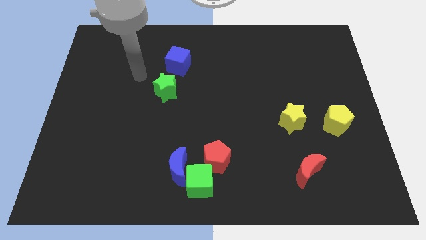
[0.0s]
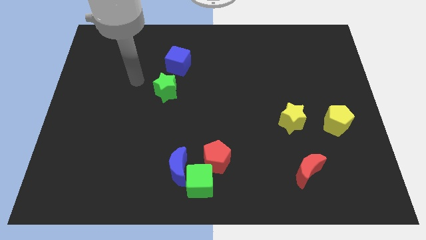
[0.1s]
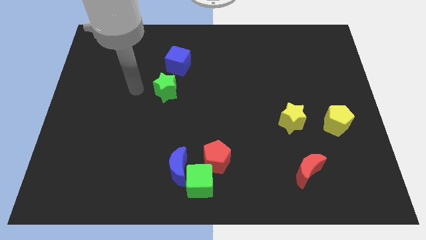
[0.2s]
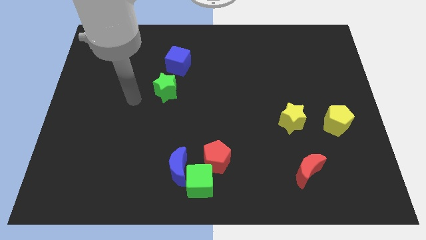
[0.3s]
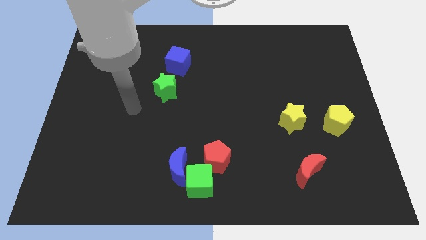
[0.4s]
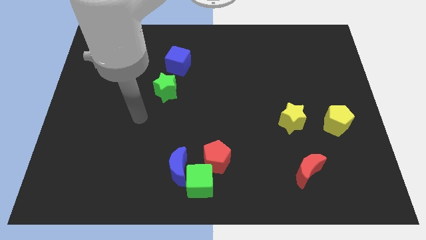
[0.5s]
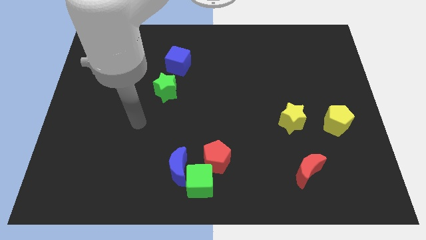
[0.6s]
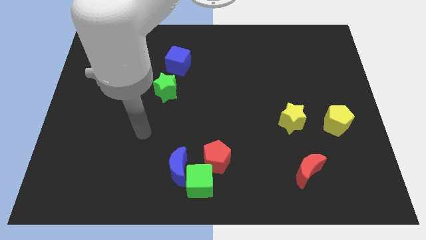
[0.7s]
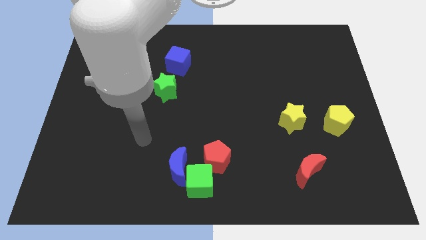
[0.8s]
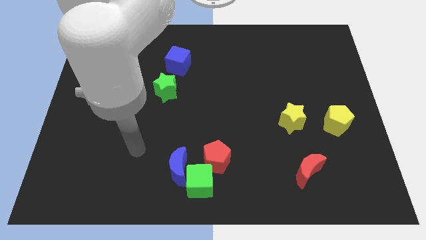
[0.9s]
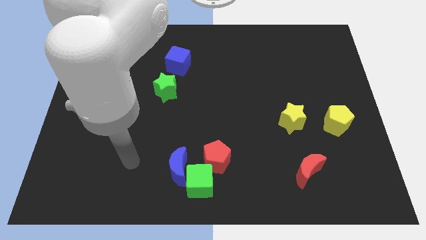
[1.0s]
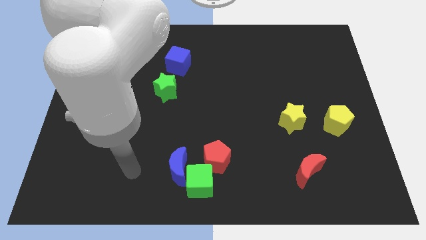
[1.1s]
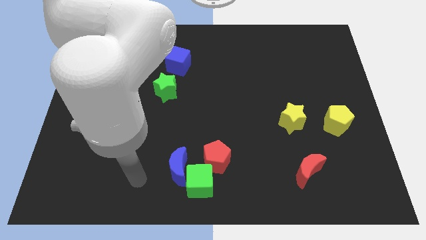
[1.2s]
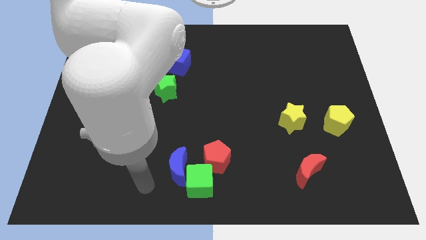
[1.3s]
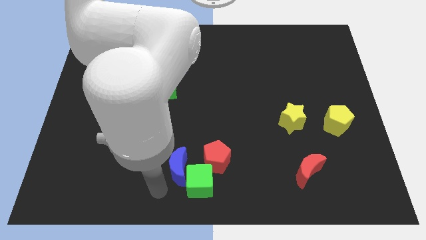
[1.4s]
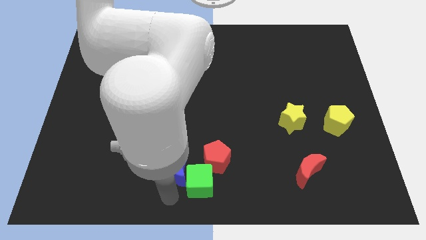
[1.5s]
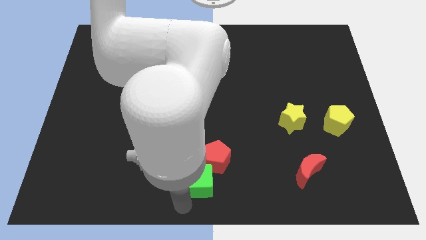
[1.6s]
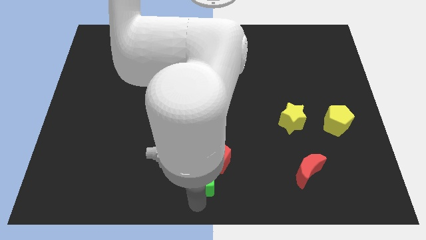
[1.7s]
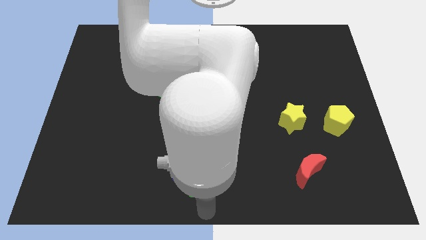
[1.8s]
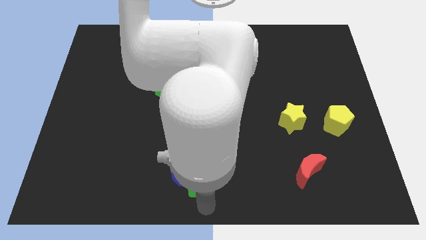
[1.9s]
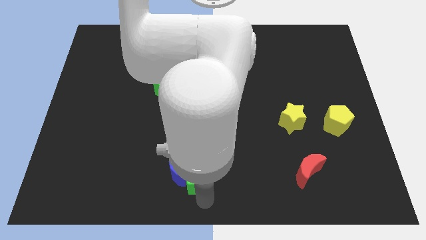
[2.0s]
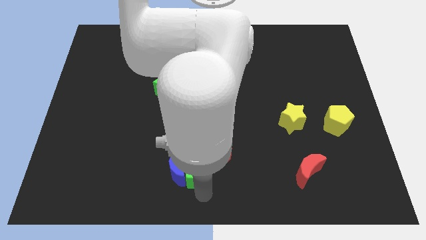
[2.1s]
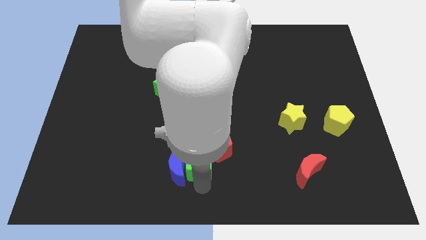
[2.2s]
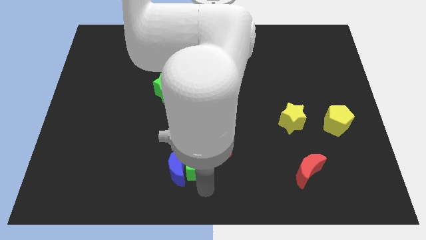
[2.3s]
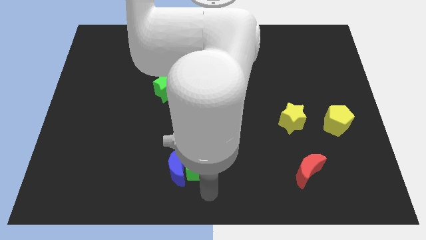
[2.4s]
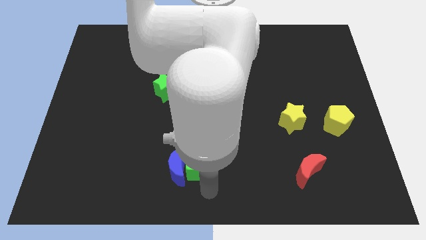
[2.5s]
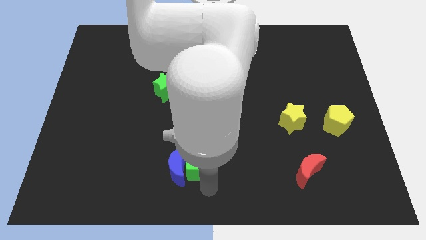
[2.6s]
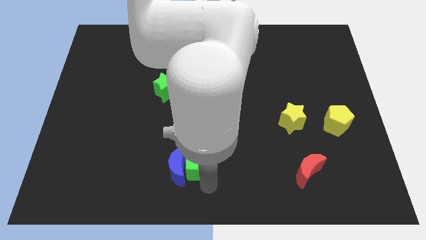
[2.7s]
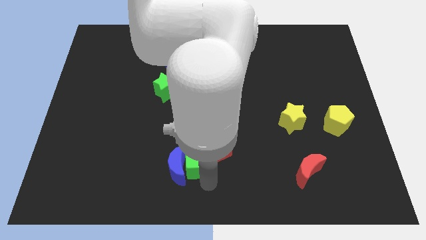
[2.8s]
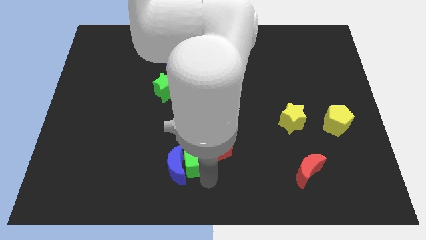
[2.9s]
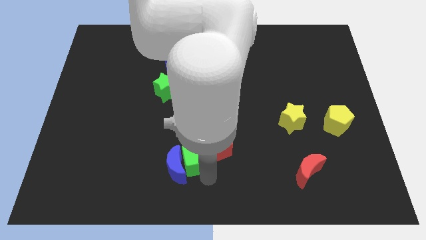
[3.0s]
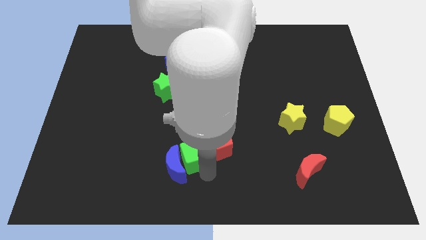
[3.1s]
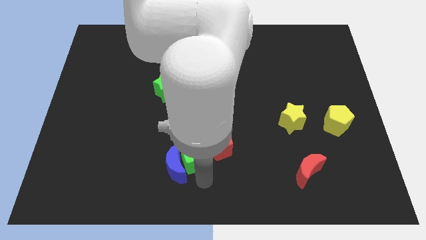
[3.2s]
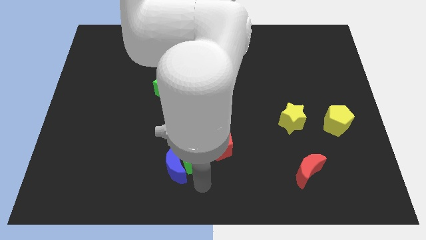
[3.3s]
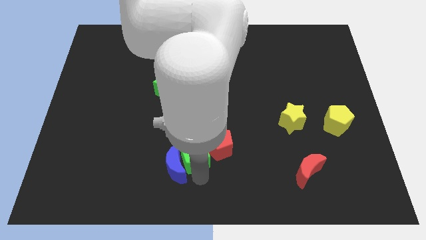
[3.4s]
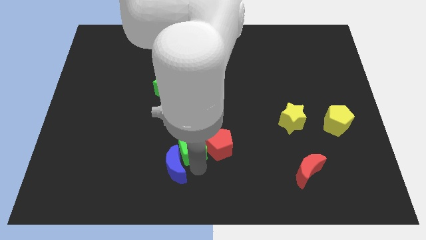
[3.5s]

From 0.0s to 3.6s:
push the green cube somewhat up

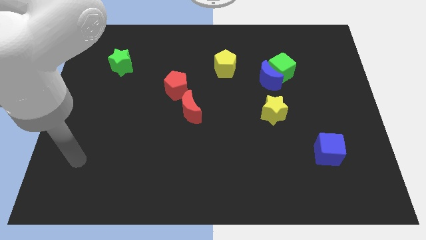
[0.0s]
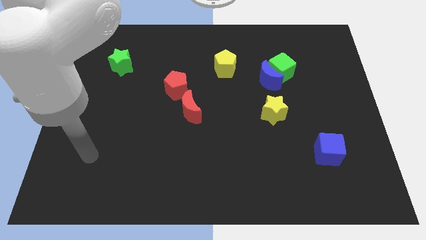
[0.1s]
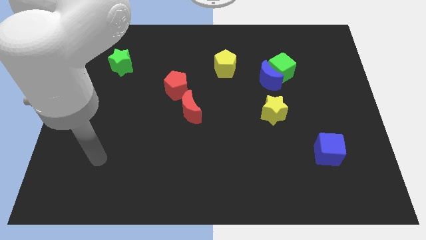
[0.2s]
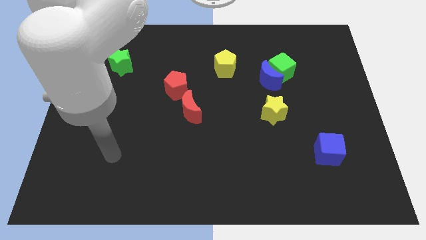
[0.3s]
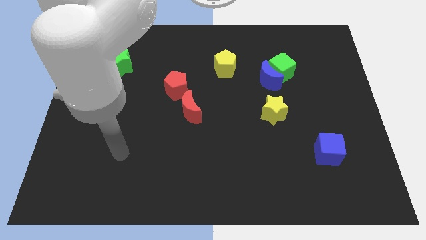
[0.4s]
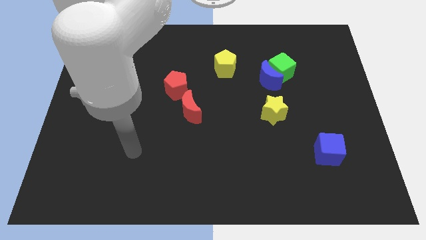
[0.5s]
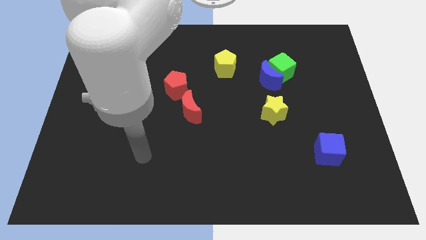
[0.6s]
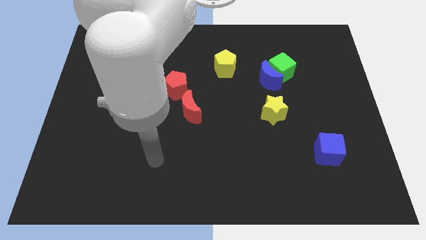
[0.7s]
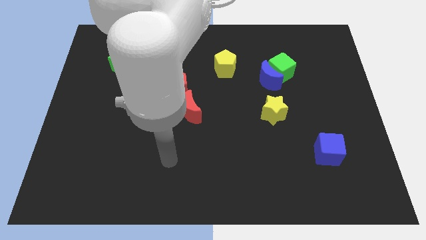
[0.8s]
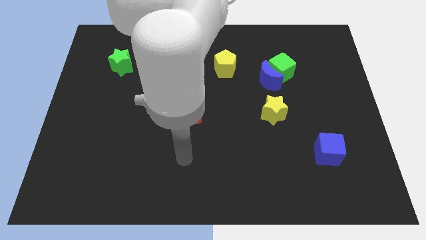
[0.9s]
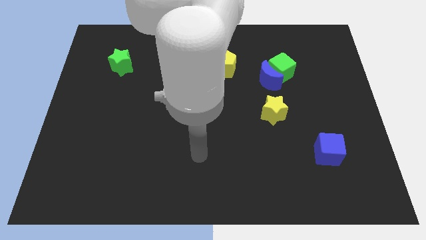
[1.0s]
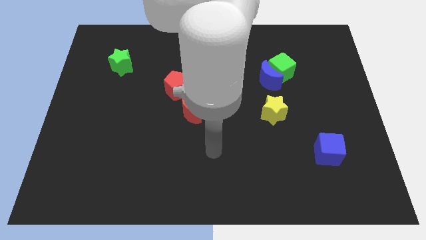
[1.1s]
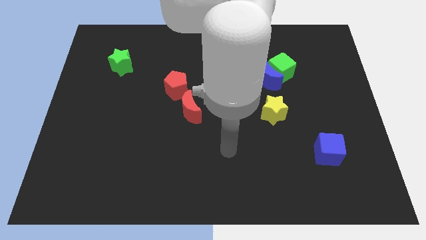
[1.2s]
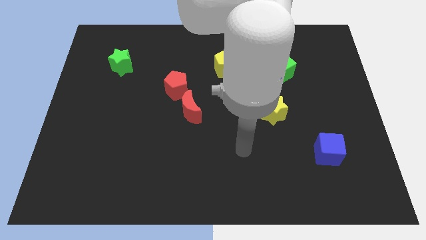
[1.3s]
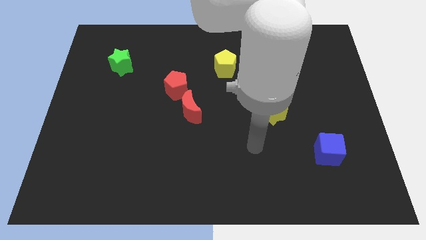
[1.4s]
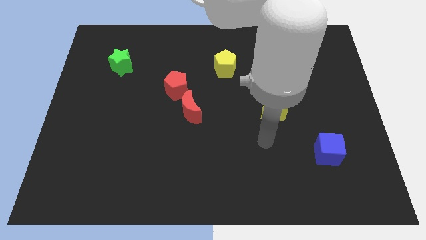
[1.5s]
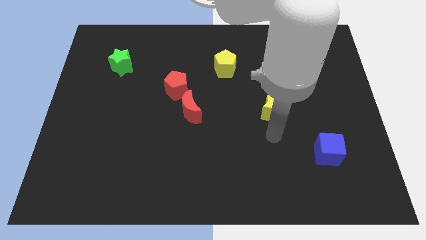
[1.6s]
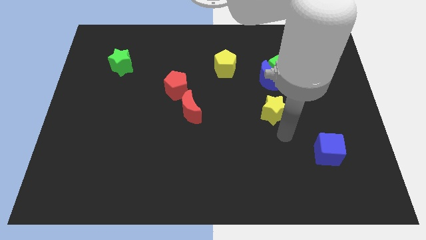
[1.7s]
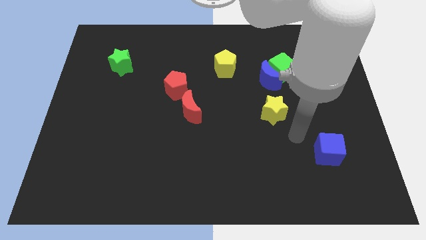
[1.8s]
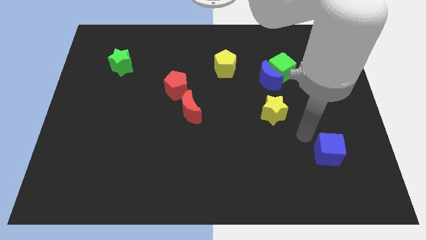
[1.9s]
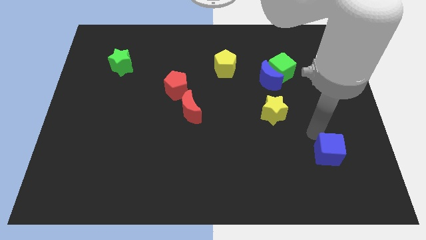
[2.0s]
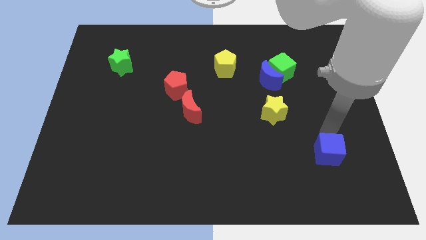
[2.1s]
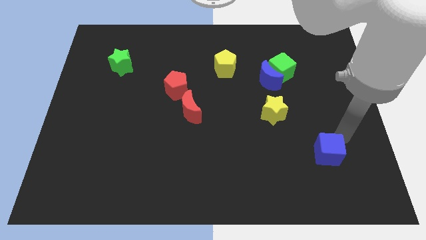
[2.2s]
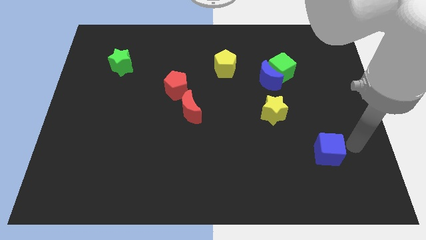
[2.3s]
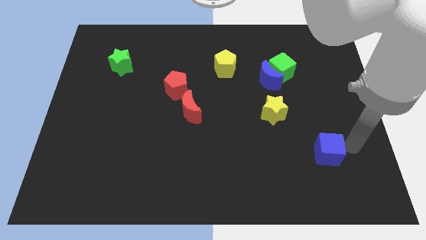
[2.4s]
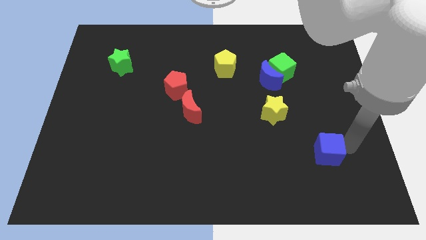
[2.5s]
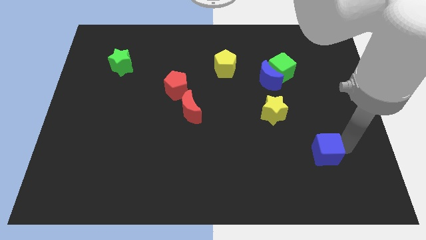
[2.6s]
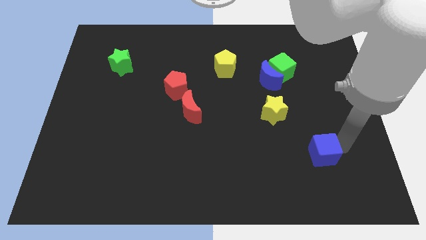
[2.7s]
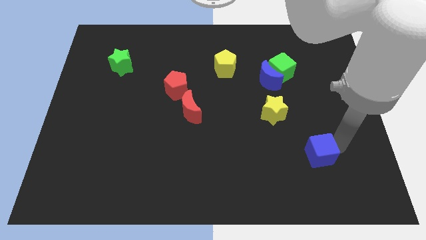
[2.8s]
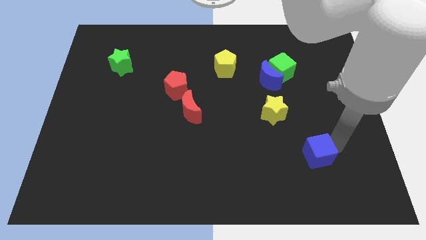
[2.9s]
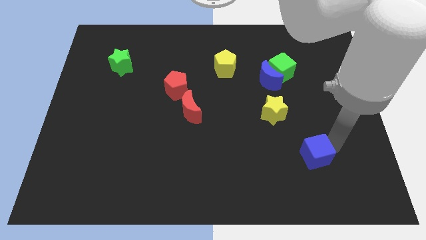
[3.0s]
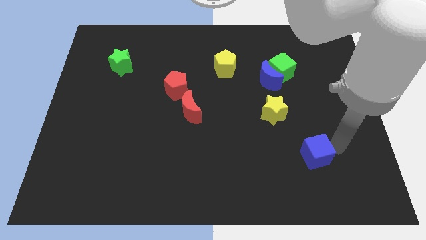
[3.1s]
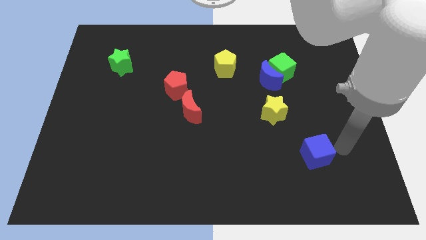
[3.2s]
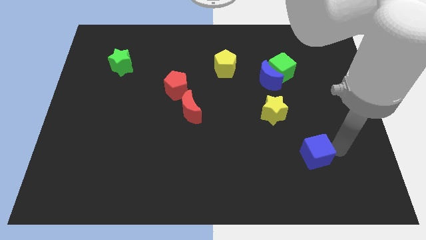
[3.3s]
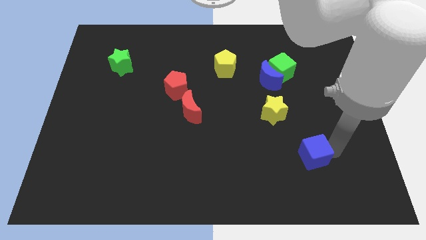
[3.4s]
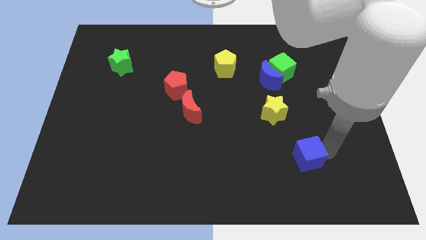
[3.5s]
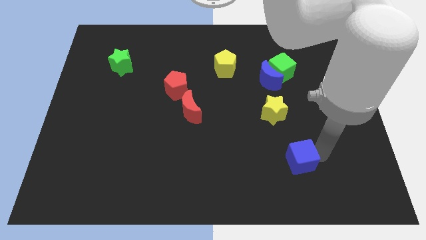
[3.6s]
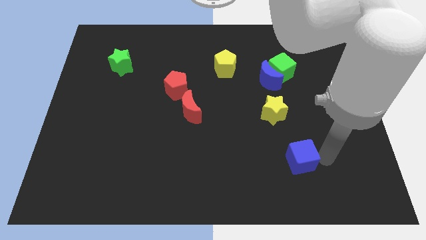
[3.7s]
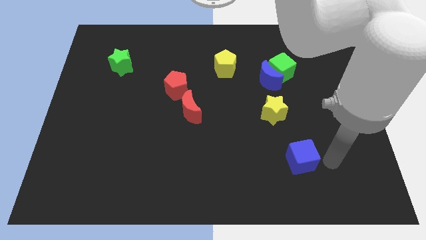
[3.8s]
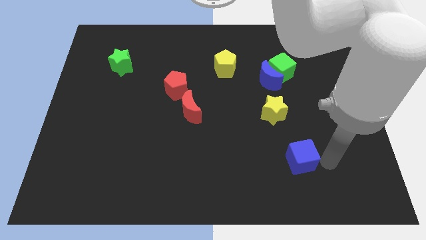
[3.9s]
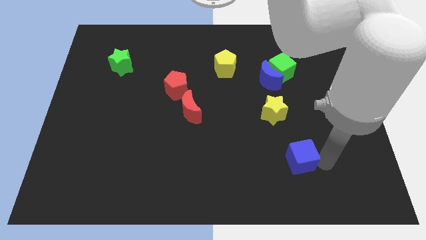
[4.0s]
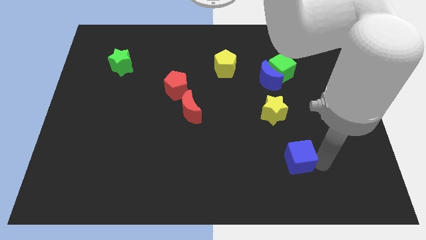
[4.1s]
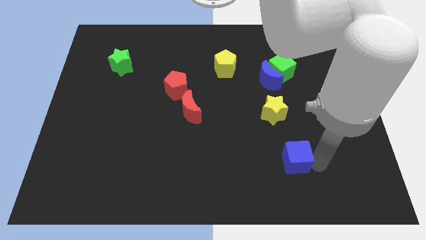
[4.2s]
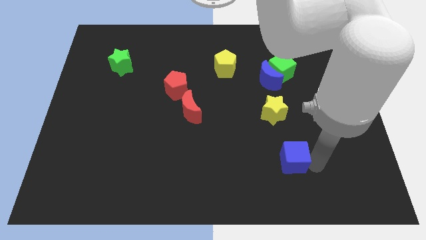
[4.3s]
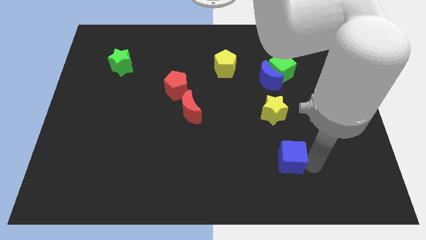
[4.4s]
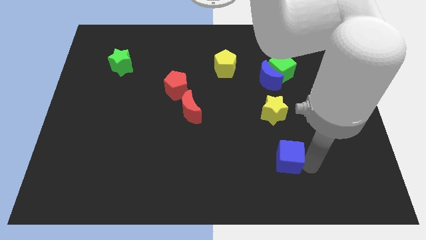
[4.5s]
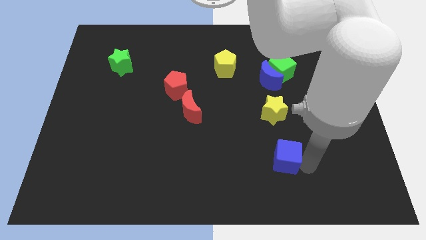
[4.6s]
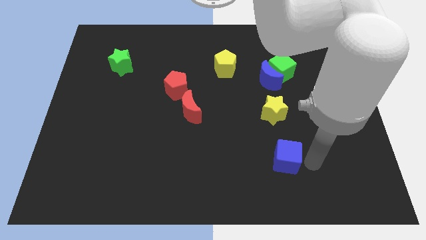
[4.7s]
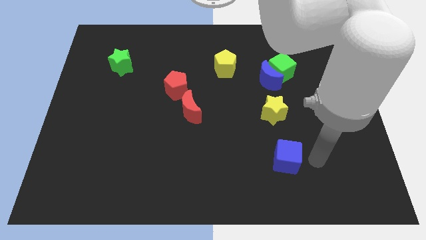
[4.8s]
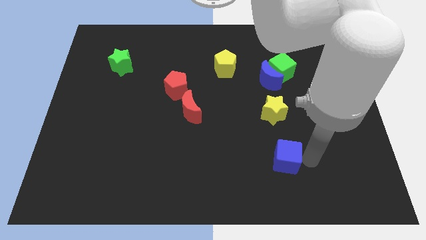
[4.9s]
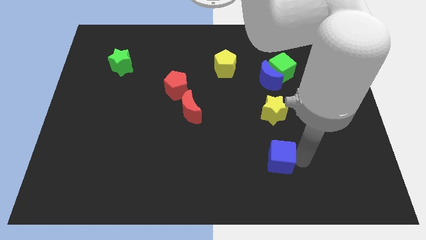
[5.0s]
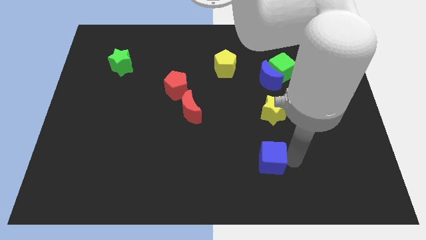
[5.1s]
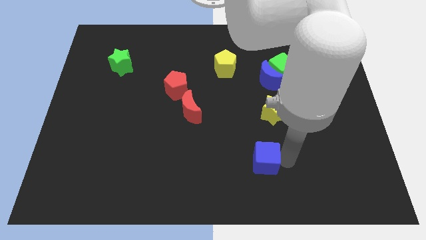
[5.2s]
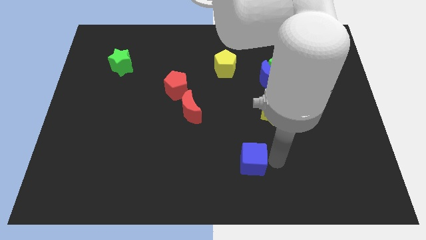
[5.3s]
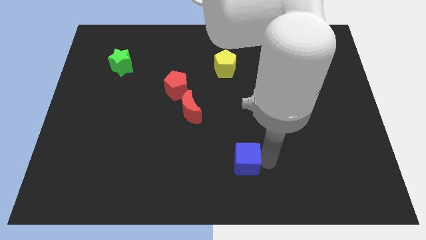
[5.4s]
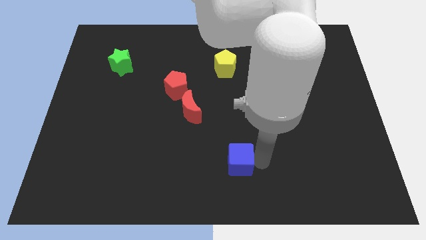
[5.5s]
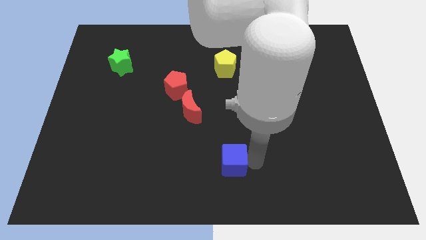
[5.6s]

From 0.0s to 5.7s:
push the blue cube to the left
